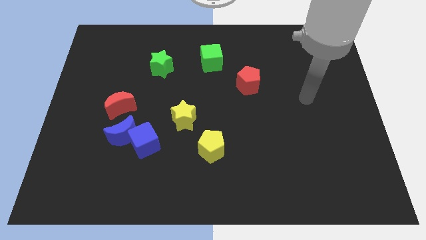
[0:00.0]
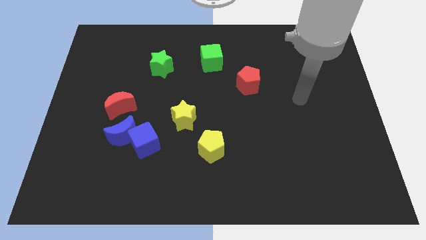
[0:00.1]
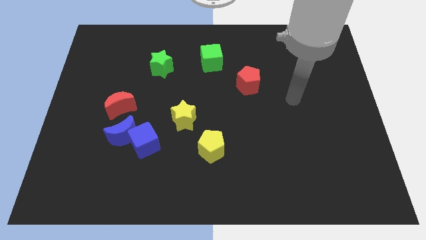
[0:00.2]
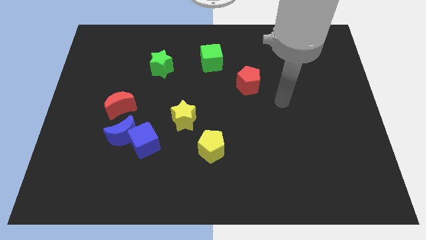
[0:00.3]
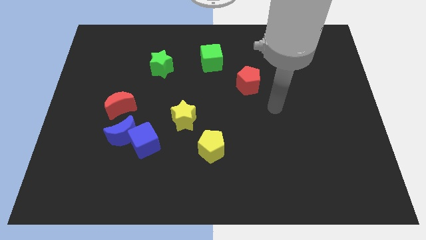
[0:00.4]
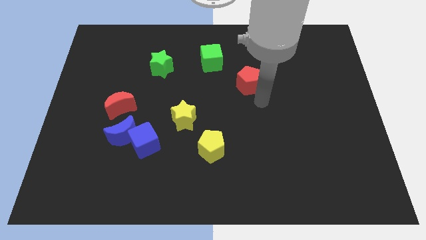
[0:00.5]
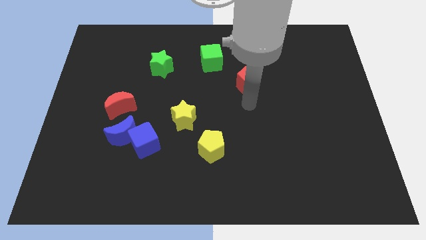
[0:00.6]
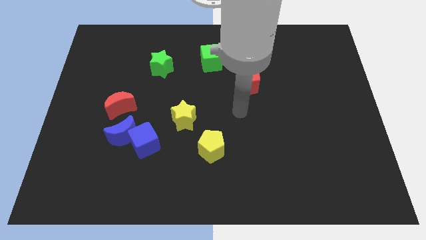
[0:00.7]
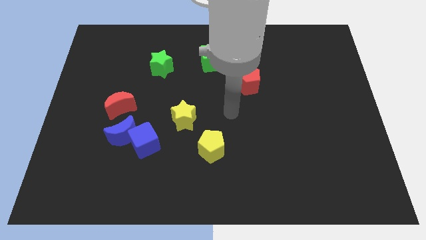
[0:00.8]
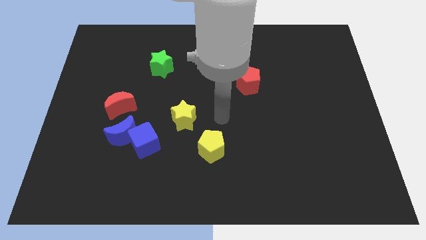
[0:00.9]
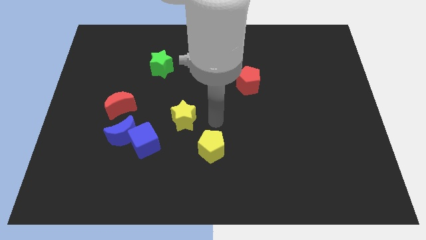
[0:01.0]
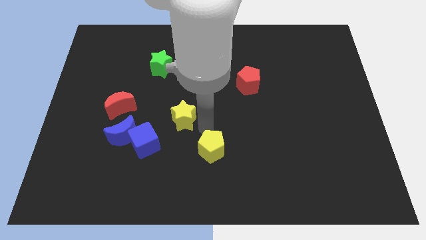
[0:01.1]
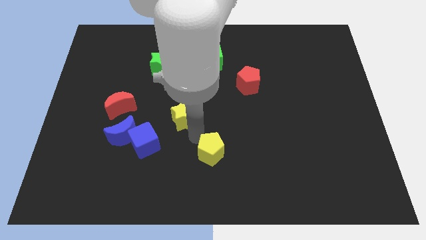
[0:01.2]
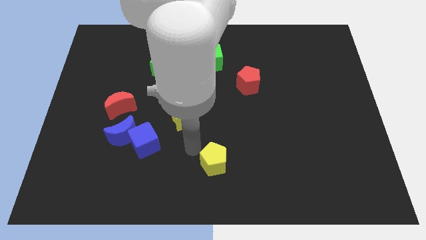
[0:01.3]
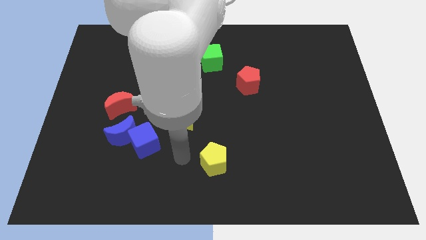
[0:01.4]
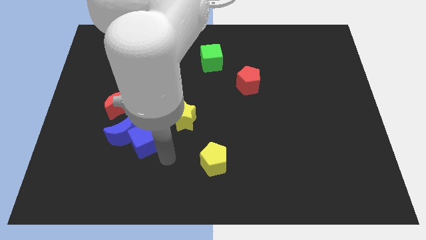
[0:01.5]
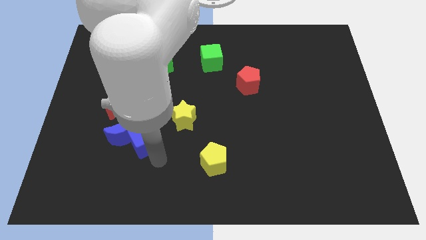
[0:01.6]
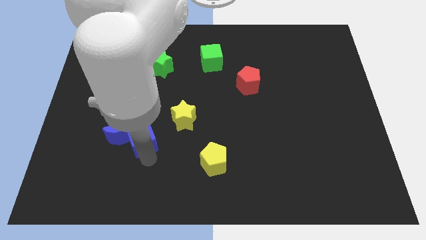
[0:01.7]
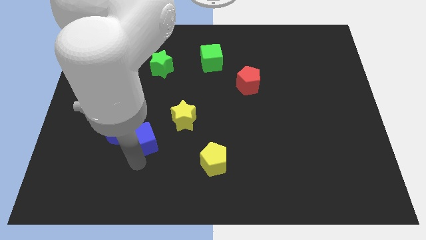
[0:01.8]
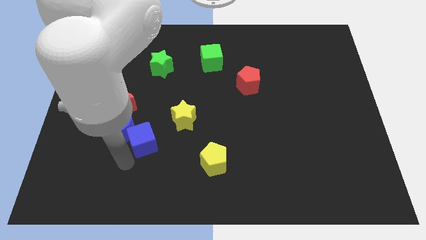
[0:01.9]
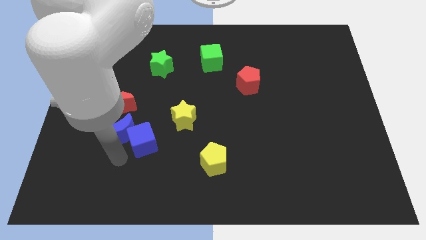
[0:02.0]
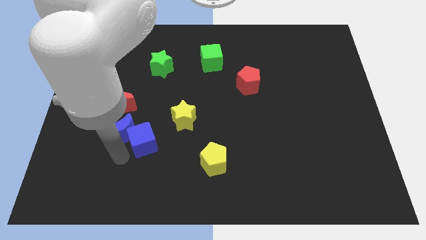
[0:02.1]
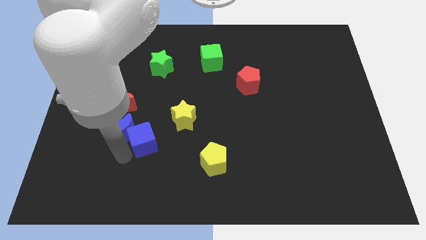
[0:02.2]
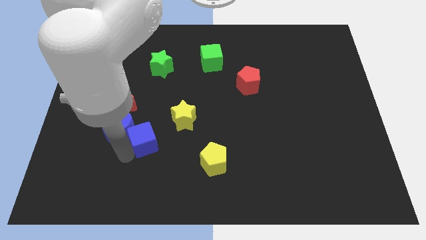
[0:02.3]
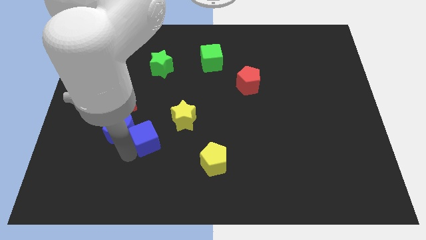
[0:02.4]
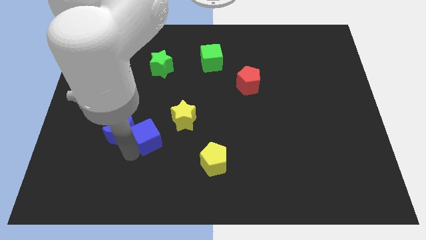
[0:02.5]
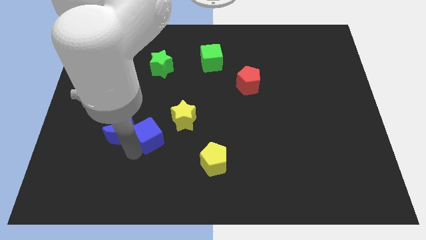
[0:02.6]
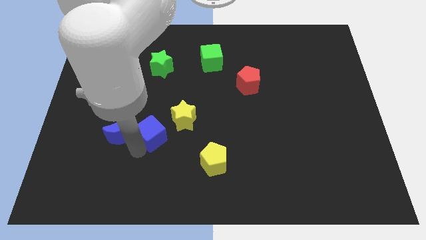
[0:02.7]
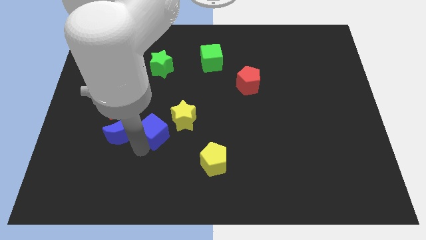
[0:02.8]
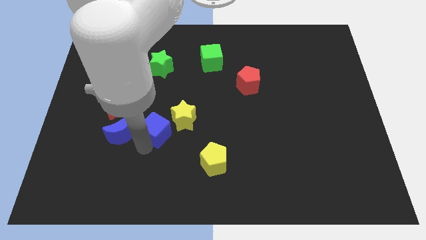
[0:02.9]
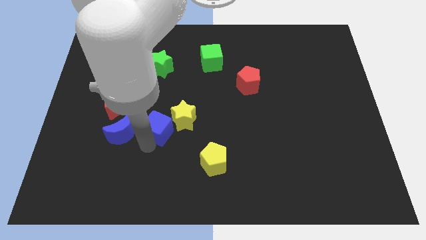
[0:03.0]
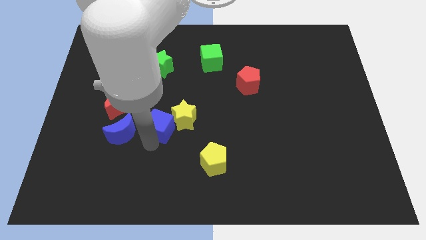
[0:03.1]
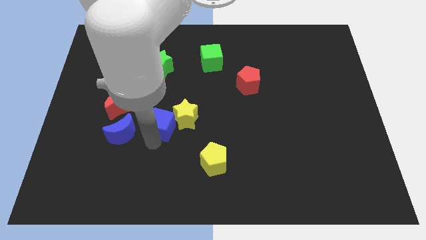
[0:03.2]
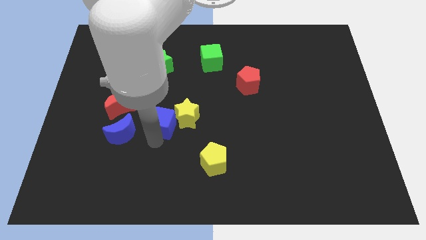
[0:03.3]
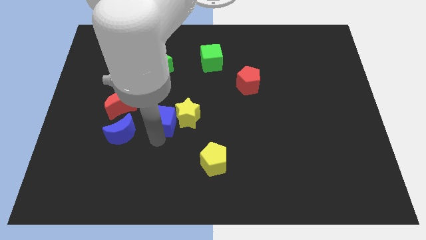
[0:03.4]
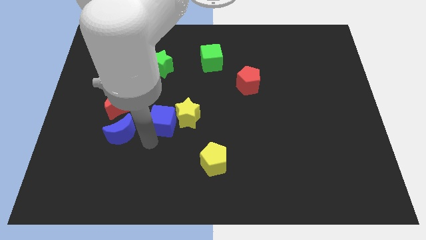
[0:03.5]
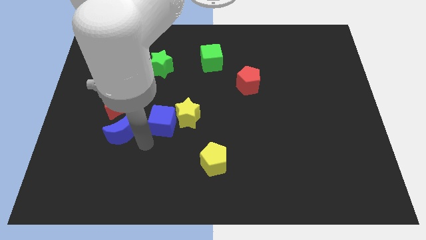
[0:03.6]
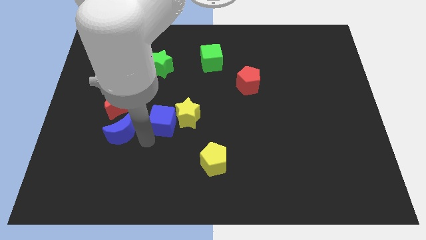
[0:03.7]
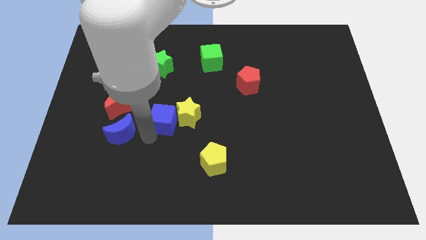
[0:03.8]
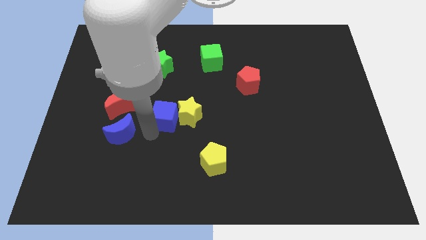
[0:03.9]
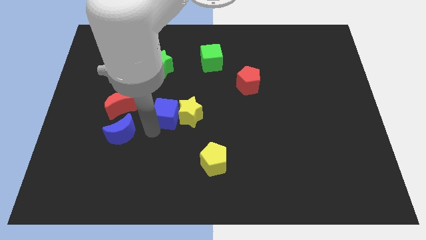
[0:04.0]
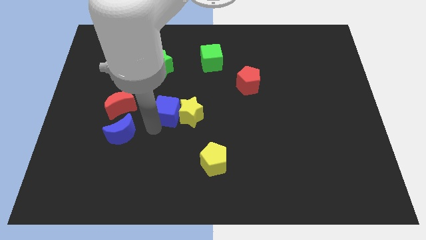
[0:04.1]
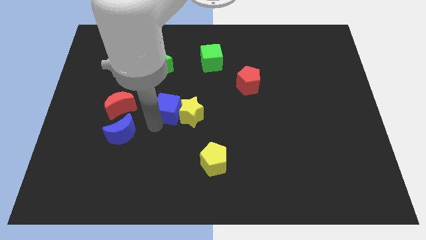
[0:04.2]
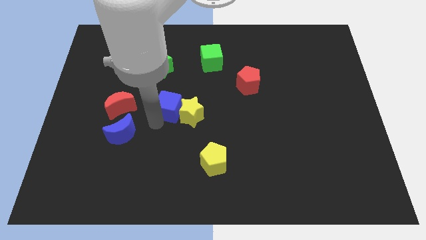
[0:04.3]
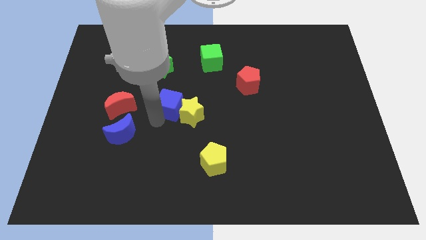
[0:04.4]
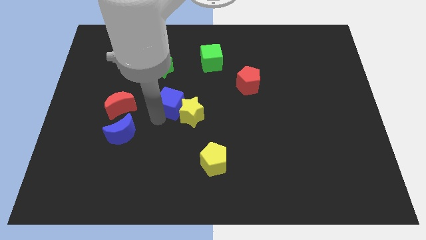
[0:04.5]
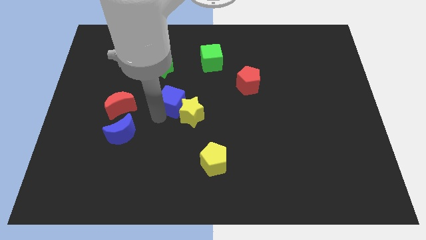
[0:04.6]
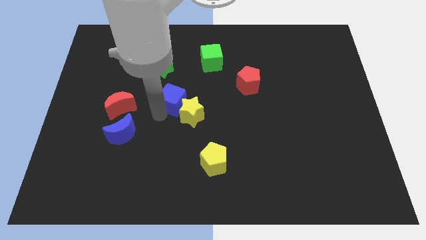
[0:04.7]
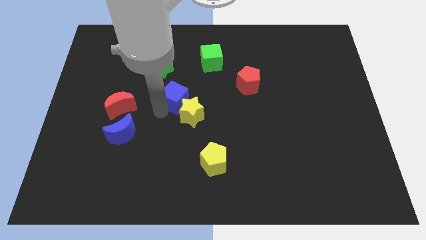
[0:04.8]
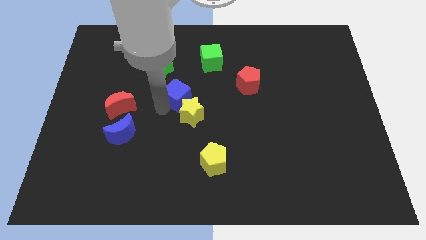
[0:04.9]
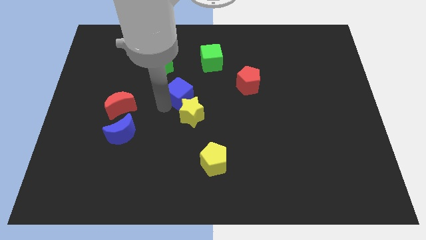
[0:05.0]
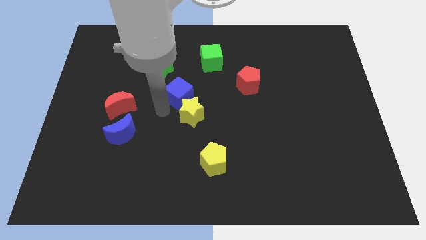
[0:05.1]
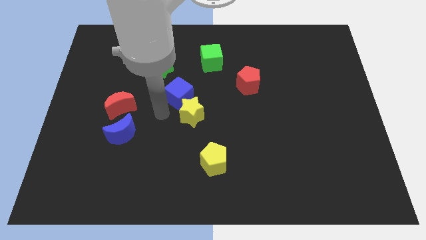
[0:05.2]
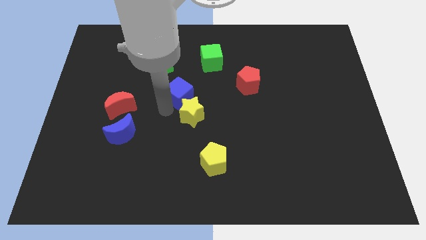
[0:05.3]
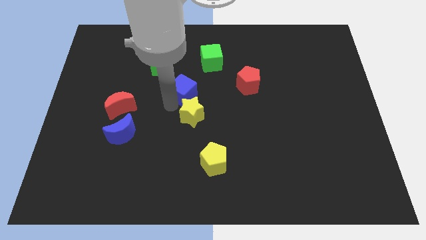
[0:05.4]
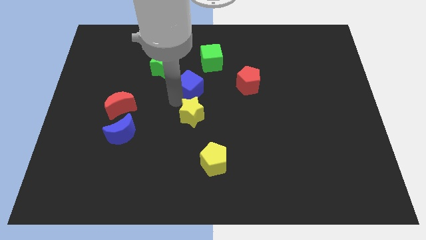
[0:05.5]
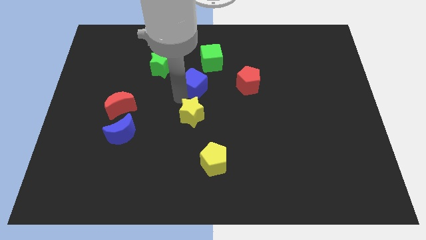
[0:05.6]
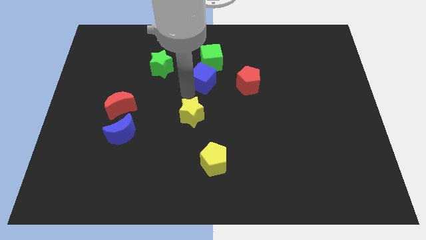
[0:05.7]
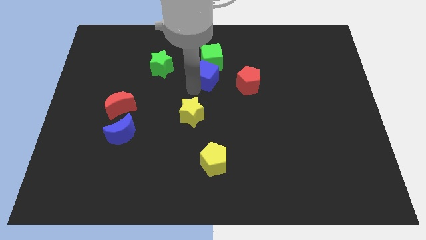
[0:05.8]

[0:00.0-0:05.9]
slide the blue cube to the green cube
